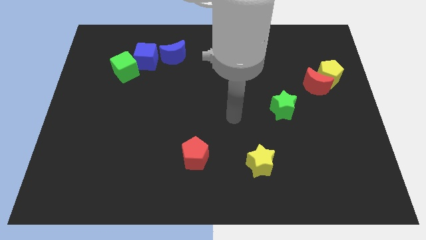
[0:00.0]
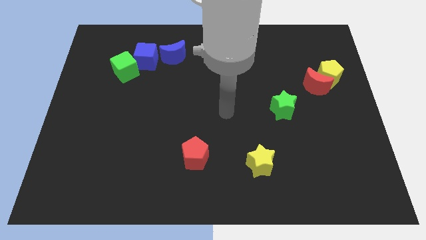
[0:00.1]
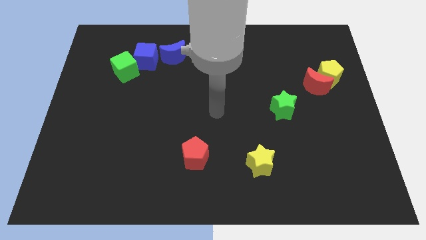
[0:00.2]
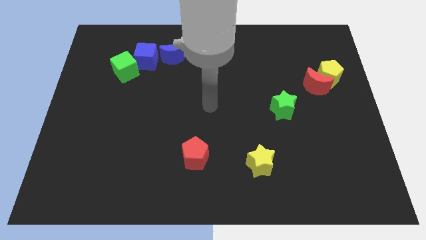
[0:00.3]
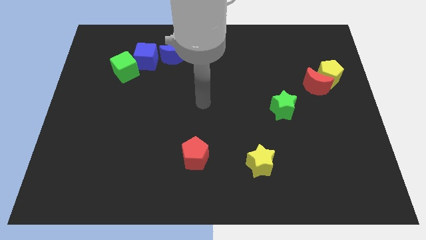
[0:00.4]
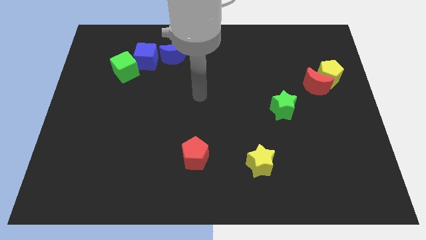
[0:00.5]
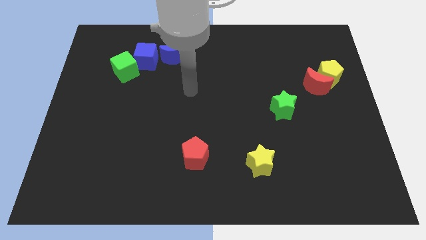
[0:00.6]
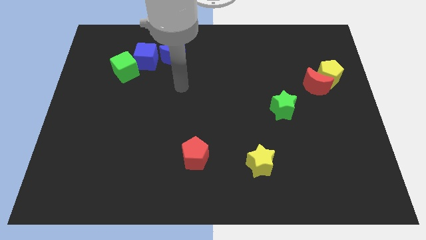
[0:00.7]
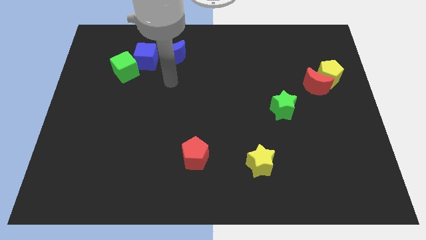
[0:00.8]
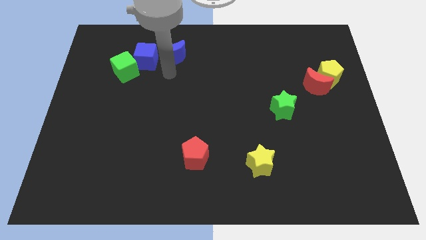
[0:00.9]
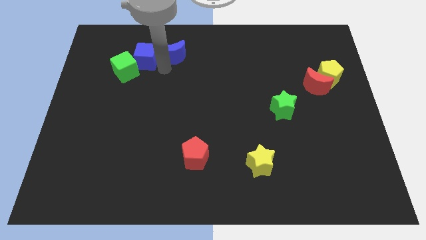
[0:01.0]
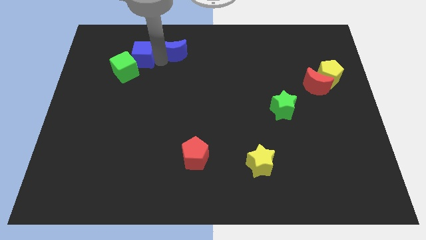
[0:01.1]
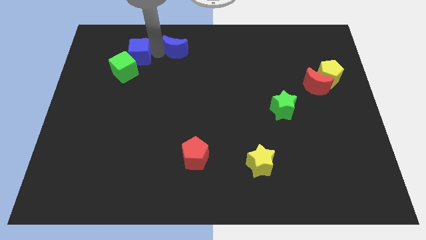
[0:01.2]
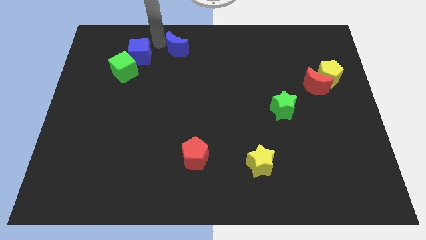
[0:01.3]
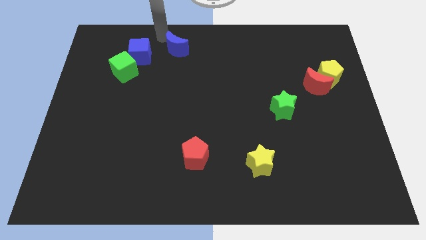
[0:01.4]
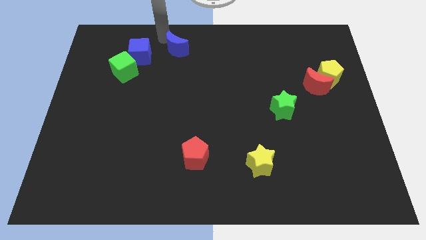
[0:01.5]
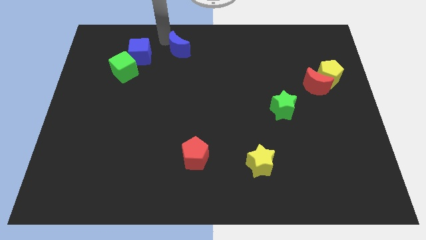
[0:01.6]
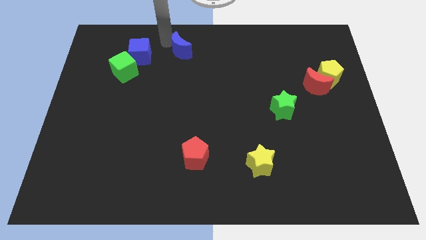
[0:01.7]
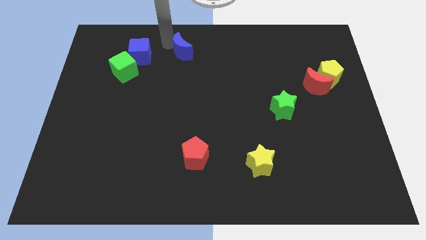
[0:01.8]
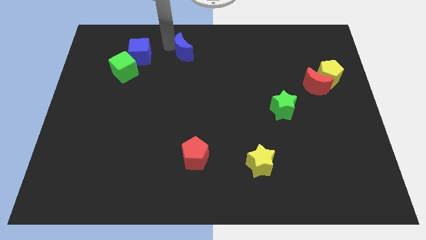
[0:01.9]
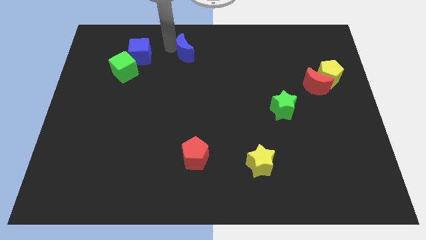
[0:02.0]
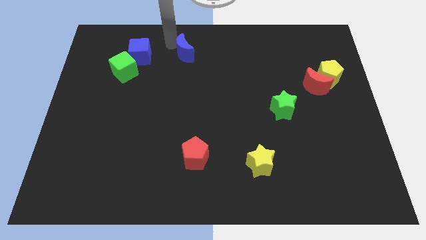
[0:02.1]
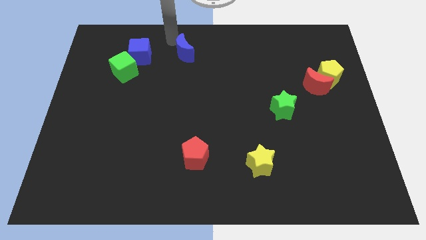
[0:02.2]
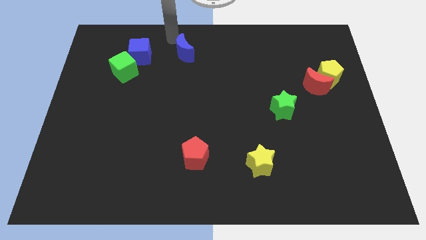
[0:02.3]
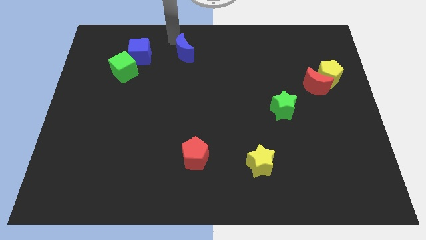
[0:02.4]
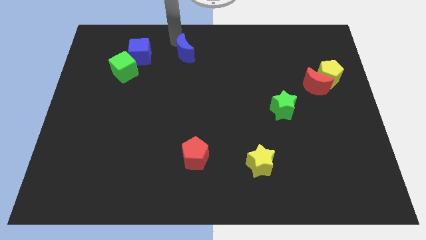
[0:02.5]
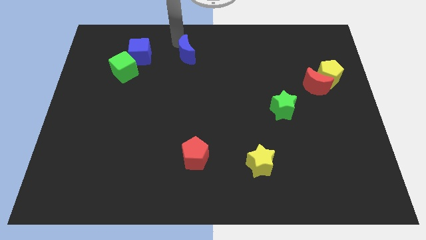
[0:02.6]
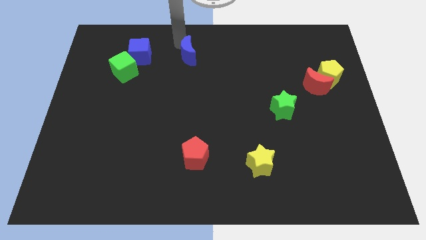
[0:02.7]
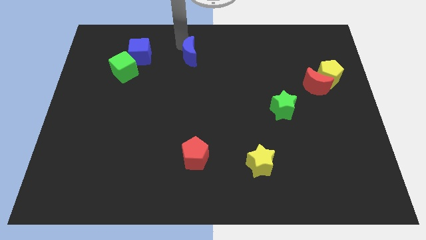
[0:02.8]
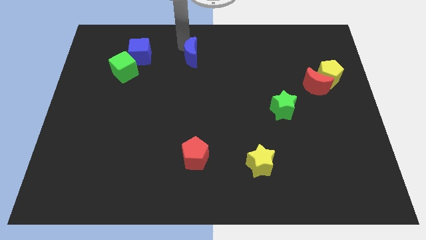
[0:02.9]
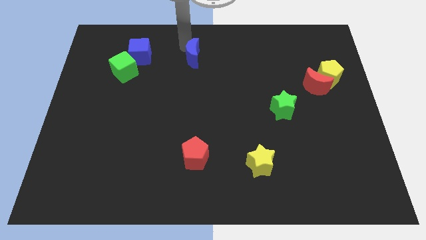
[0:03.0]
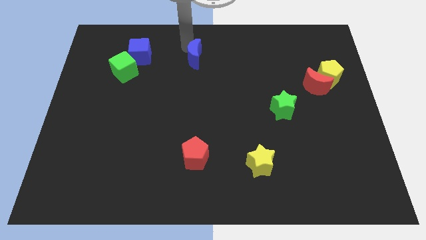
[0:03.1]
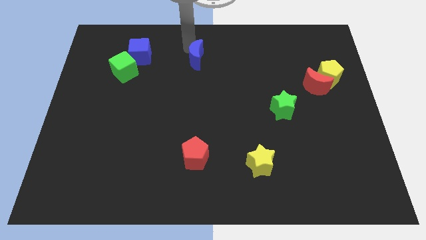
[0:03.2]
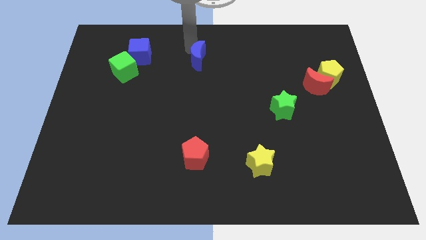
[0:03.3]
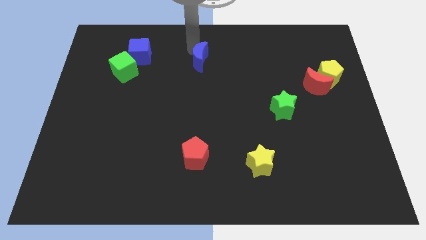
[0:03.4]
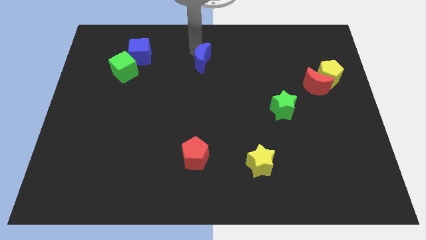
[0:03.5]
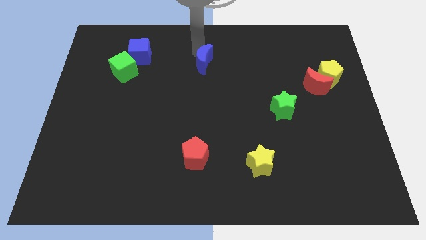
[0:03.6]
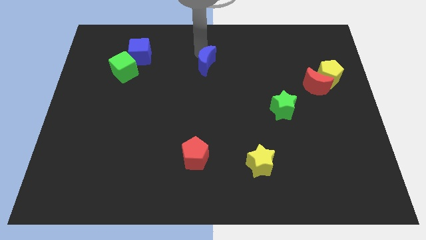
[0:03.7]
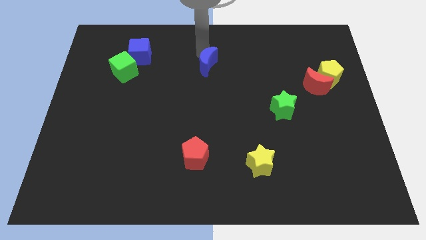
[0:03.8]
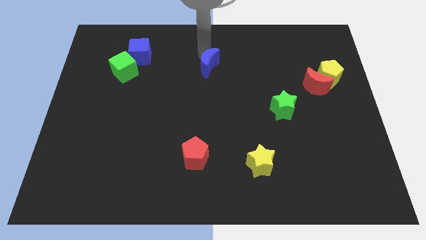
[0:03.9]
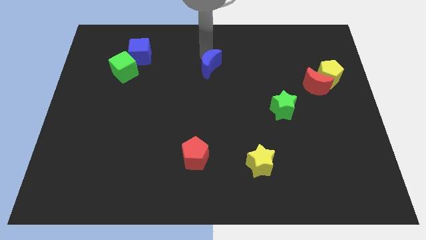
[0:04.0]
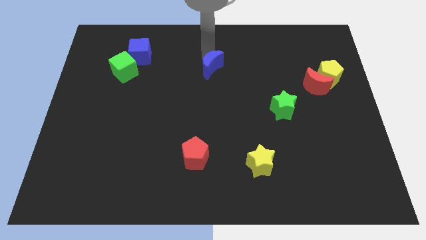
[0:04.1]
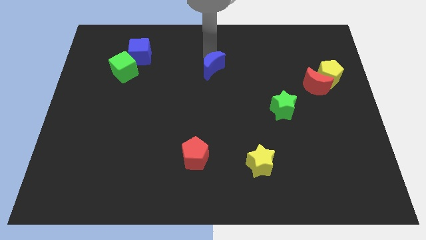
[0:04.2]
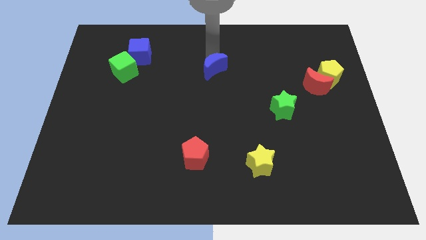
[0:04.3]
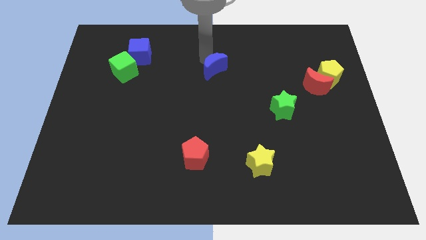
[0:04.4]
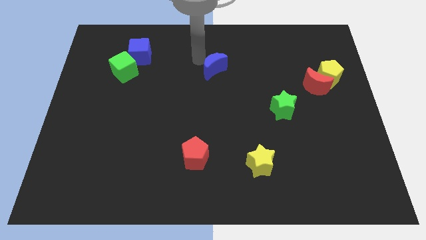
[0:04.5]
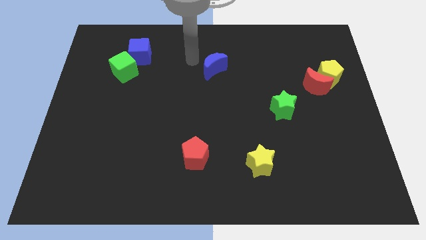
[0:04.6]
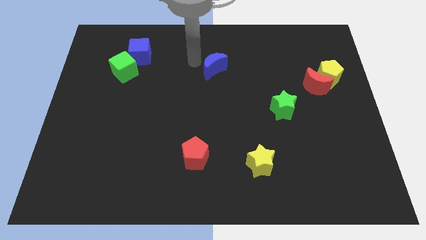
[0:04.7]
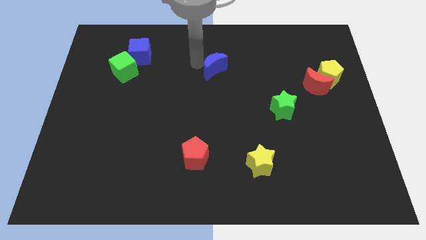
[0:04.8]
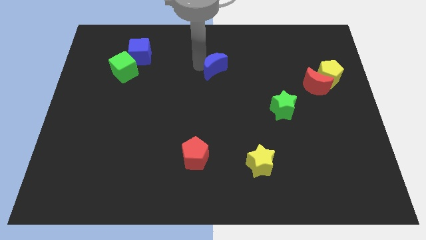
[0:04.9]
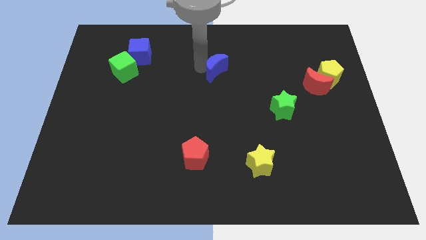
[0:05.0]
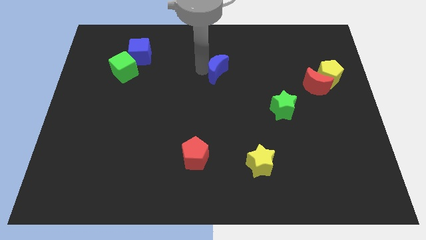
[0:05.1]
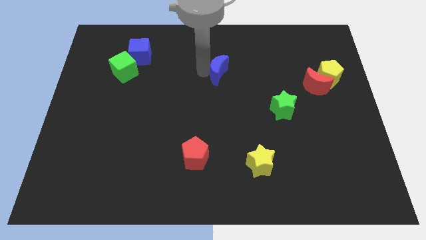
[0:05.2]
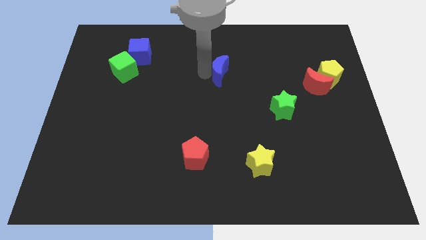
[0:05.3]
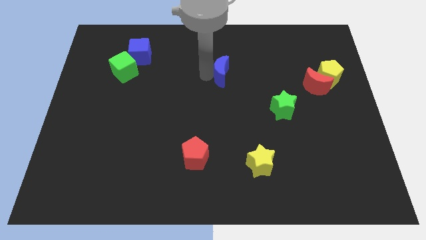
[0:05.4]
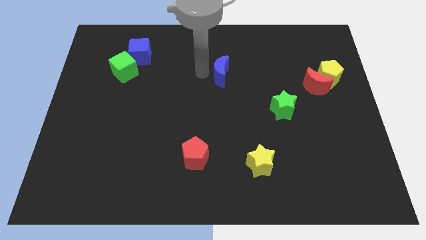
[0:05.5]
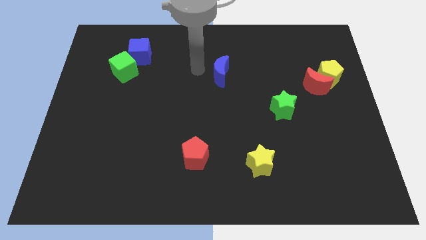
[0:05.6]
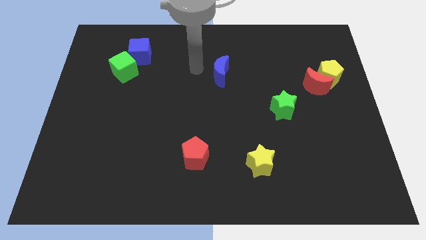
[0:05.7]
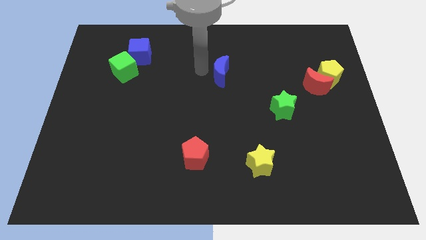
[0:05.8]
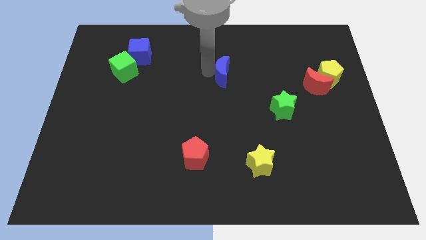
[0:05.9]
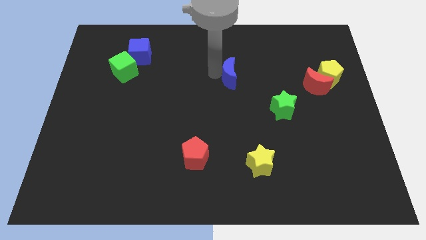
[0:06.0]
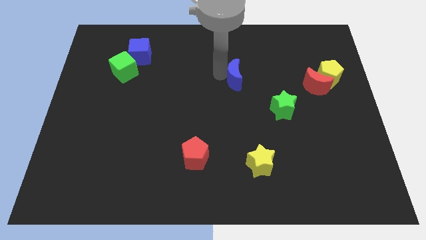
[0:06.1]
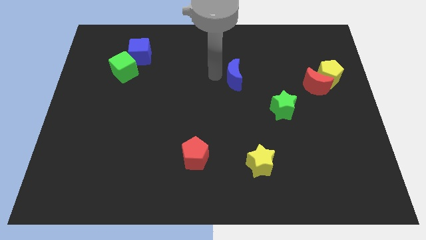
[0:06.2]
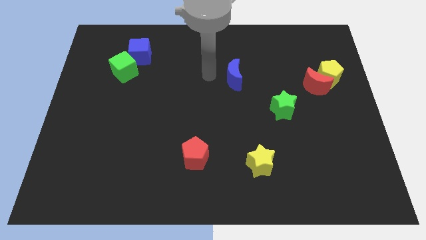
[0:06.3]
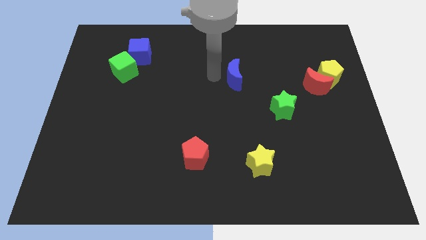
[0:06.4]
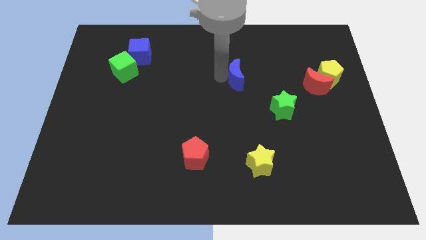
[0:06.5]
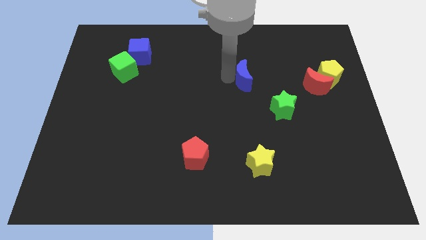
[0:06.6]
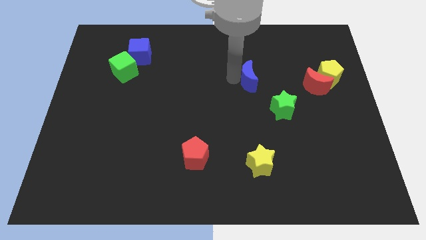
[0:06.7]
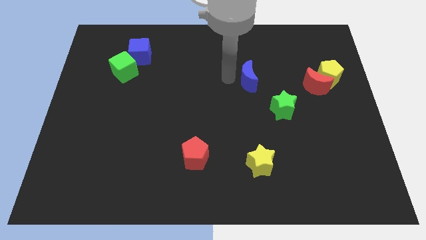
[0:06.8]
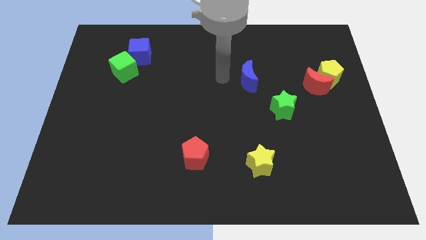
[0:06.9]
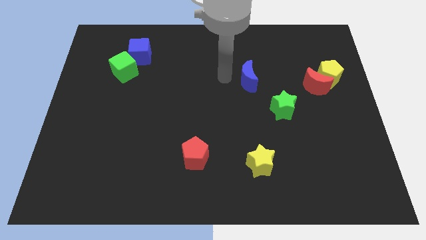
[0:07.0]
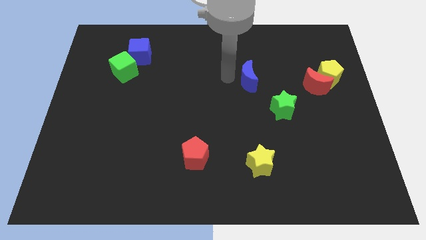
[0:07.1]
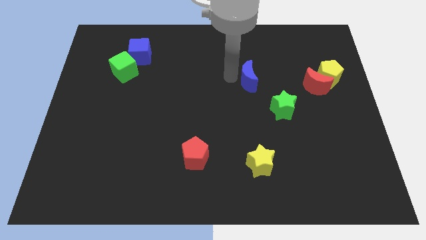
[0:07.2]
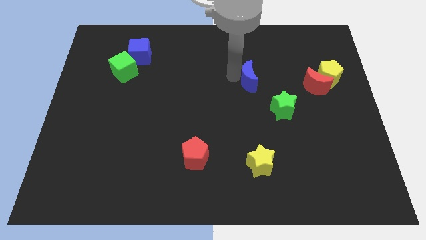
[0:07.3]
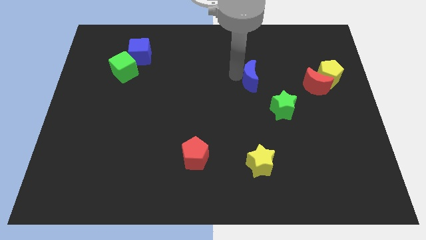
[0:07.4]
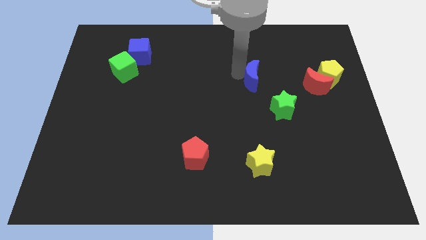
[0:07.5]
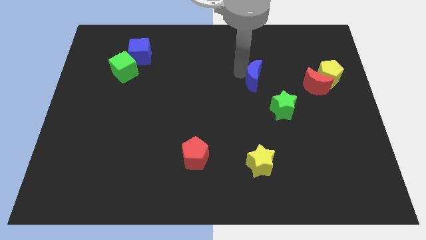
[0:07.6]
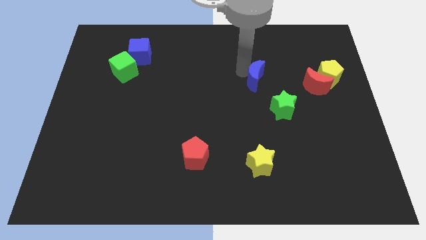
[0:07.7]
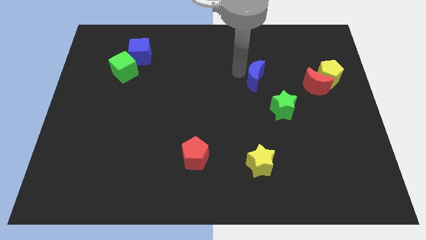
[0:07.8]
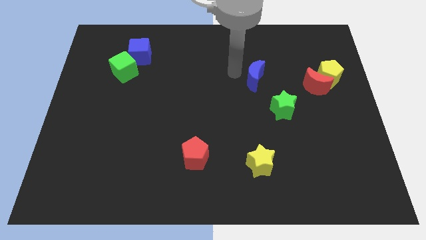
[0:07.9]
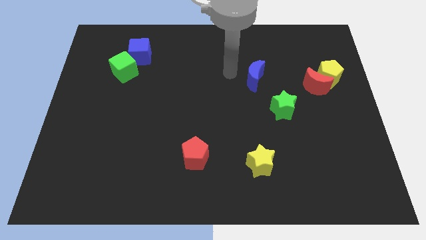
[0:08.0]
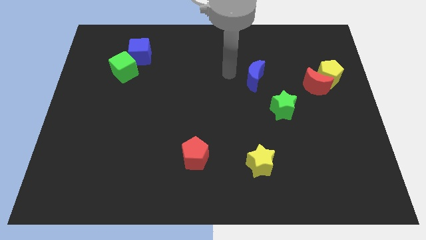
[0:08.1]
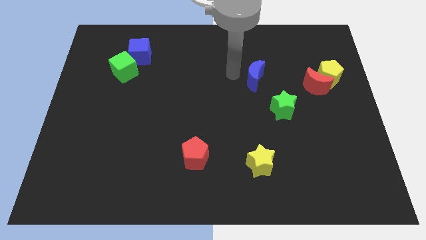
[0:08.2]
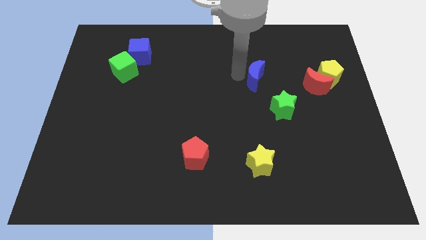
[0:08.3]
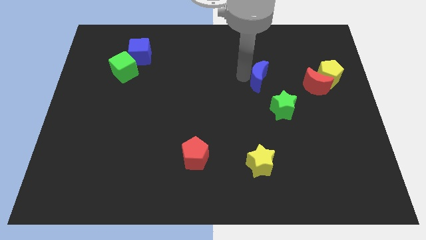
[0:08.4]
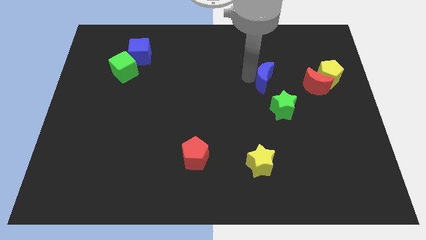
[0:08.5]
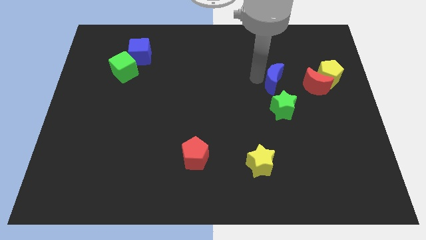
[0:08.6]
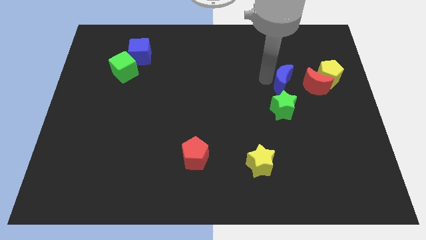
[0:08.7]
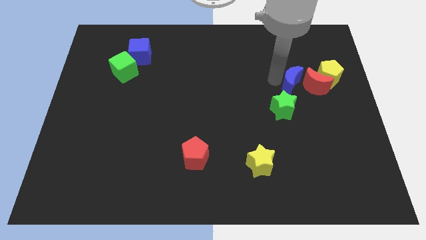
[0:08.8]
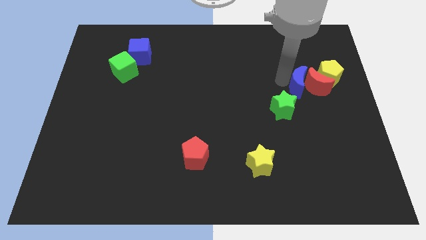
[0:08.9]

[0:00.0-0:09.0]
push the blue moon to the bottom left side of the yellow pentagon
